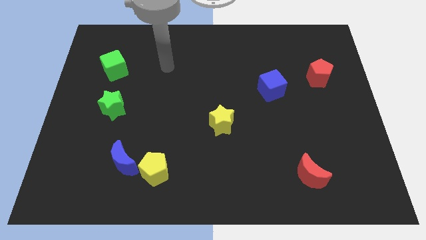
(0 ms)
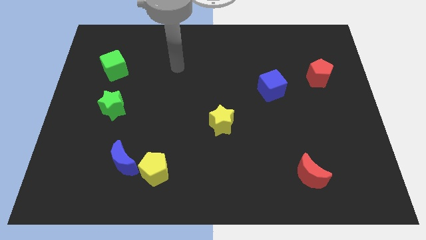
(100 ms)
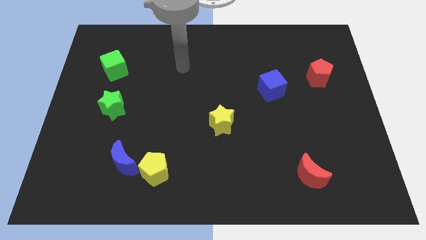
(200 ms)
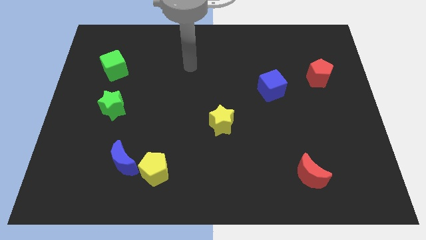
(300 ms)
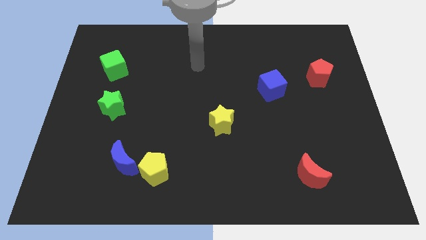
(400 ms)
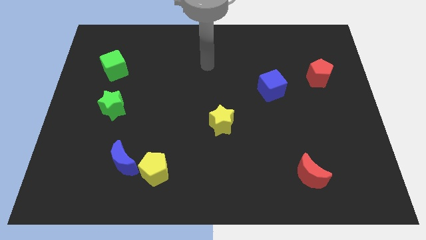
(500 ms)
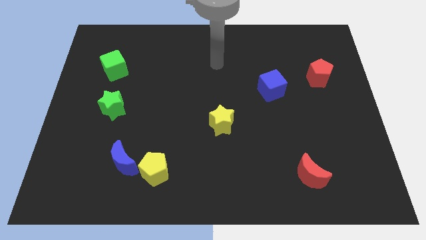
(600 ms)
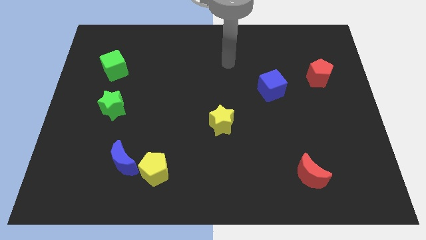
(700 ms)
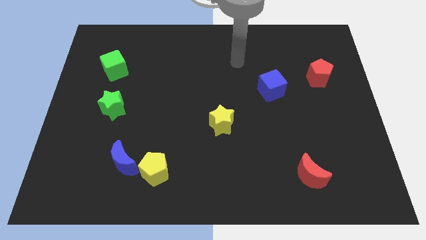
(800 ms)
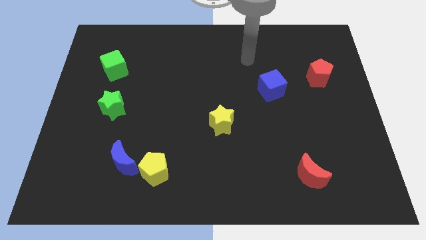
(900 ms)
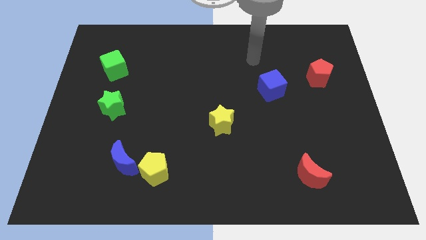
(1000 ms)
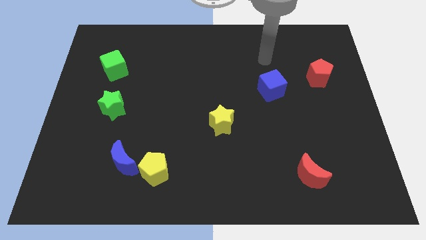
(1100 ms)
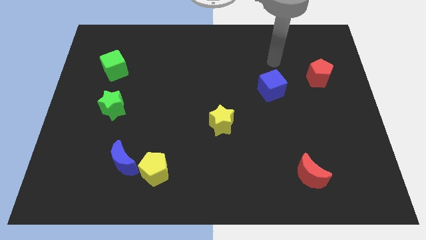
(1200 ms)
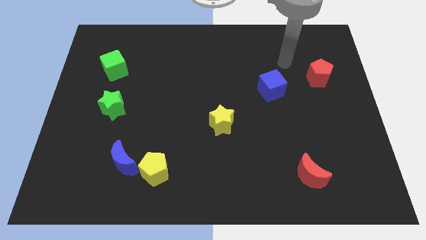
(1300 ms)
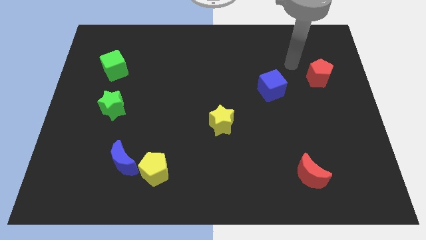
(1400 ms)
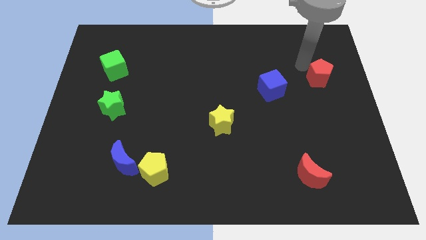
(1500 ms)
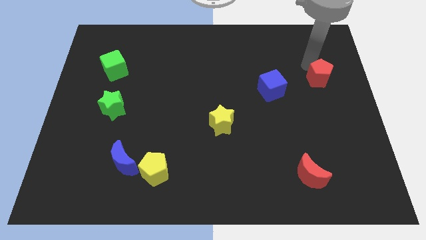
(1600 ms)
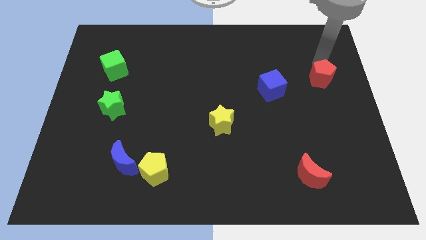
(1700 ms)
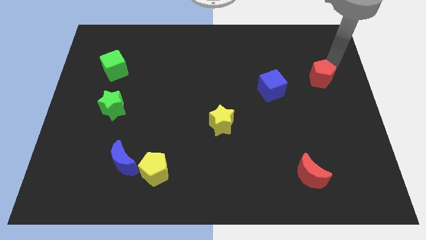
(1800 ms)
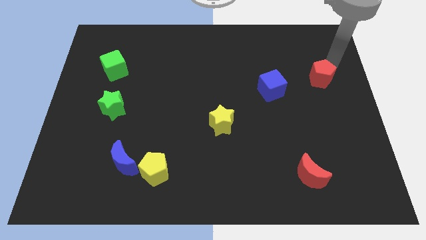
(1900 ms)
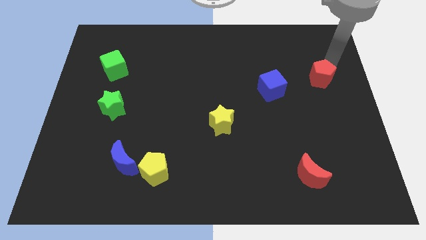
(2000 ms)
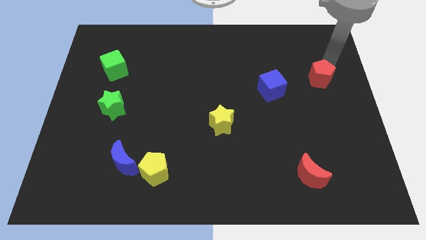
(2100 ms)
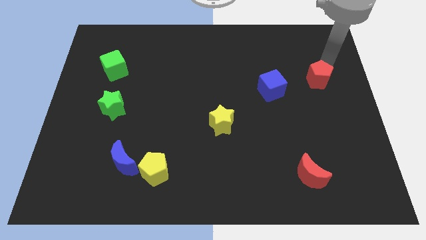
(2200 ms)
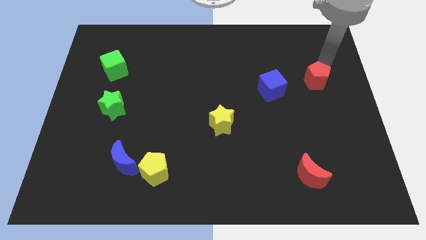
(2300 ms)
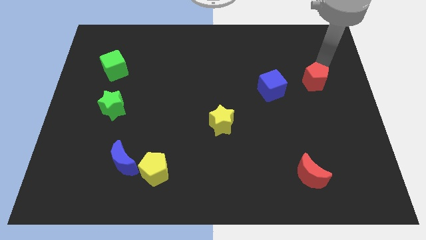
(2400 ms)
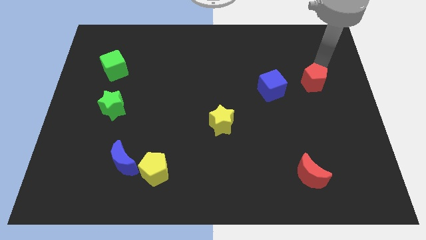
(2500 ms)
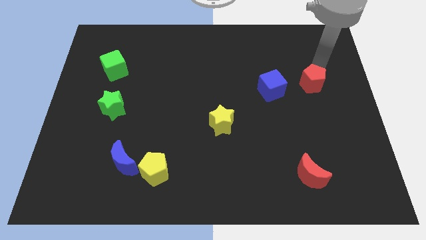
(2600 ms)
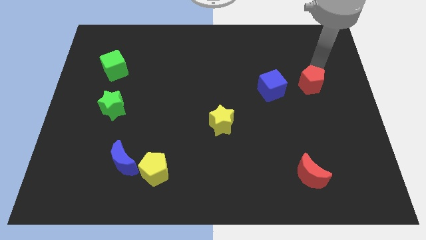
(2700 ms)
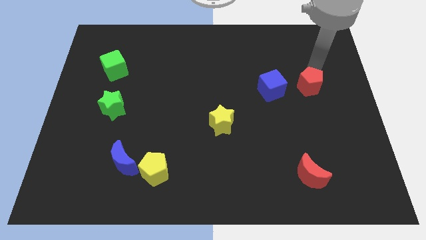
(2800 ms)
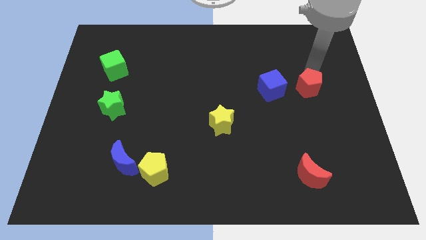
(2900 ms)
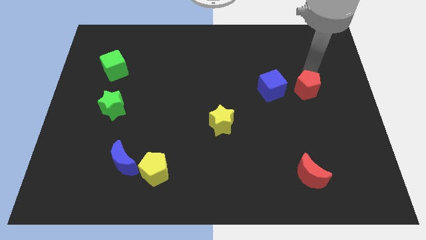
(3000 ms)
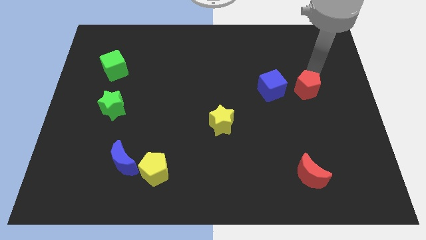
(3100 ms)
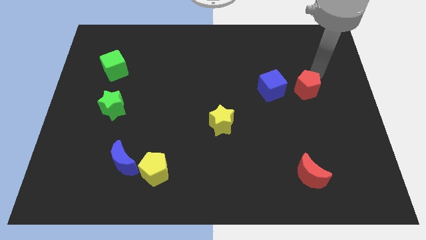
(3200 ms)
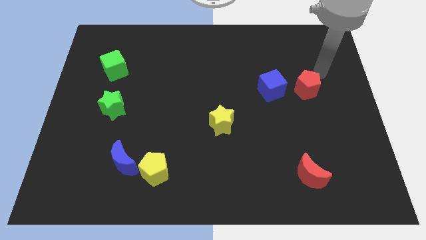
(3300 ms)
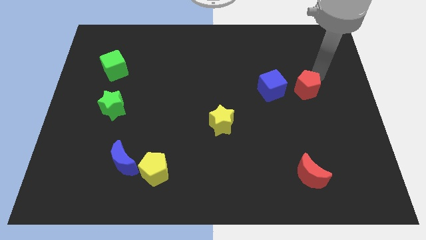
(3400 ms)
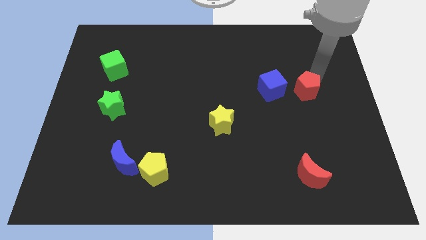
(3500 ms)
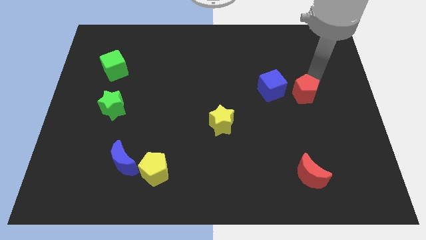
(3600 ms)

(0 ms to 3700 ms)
move the red pentagon down and left a bit

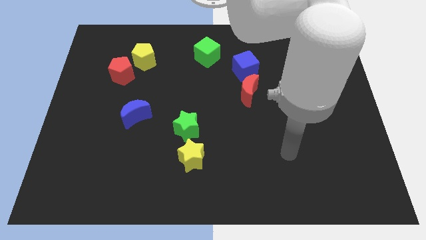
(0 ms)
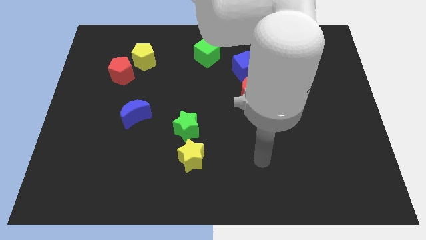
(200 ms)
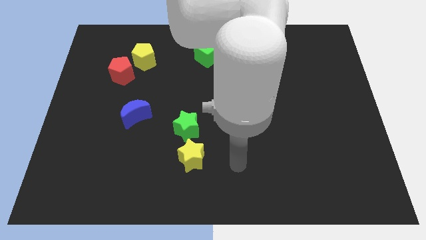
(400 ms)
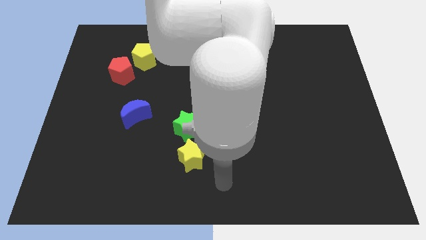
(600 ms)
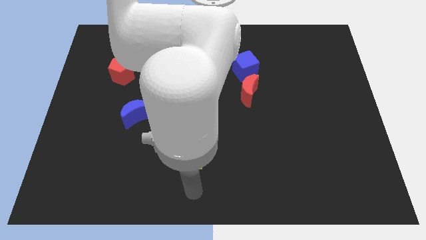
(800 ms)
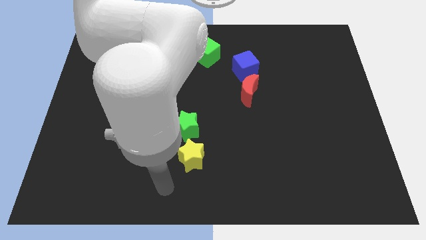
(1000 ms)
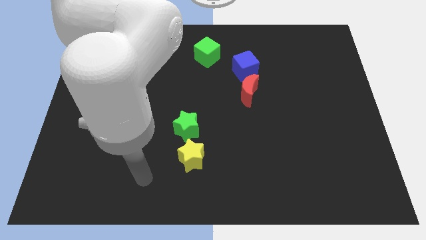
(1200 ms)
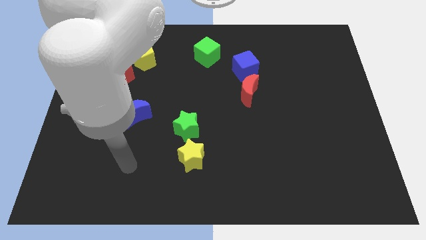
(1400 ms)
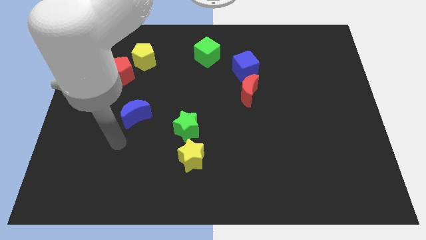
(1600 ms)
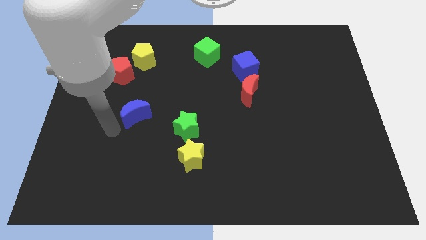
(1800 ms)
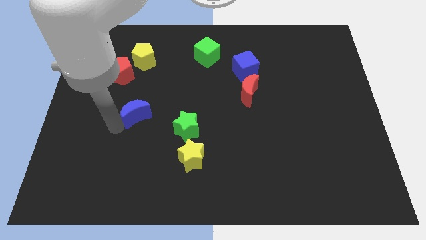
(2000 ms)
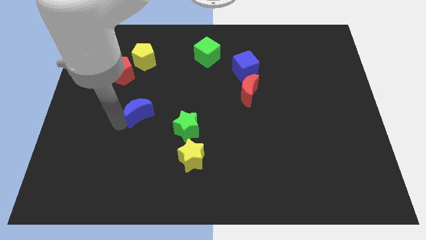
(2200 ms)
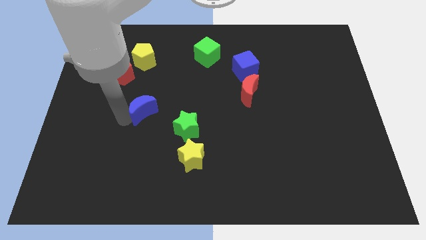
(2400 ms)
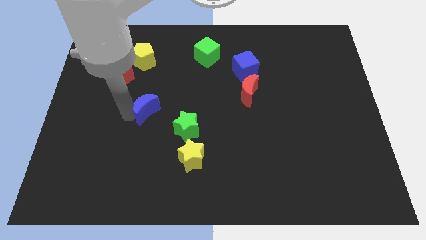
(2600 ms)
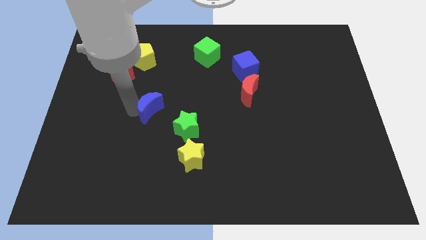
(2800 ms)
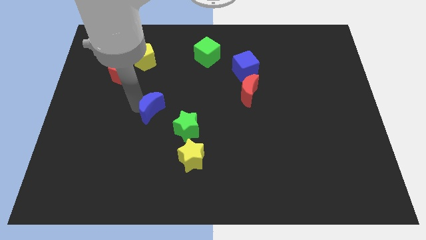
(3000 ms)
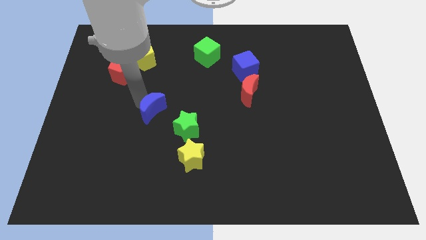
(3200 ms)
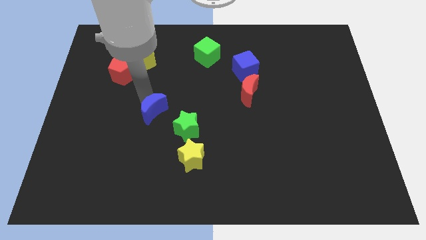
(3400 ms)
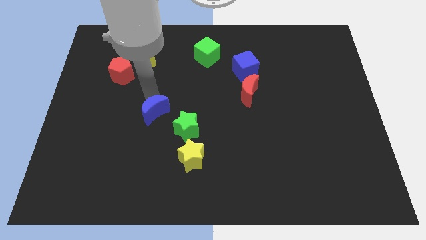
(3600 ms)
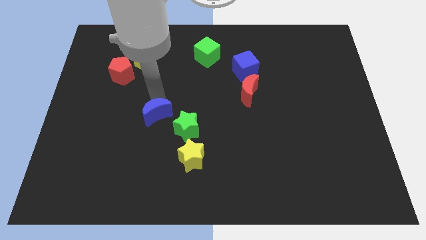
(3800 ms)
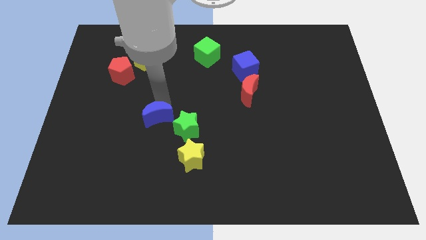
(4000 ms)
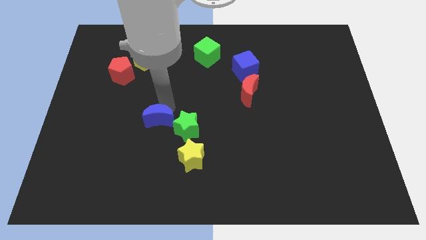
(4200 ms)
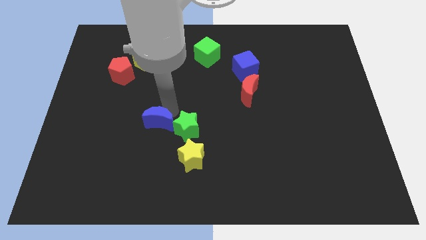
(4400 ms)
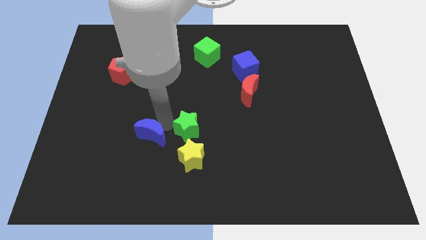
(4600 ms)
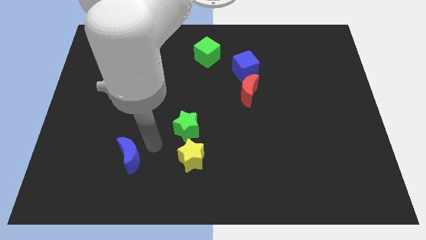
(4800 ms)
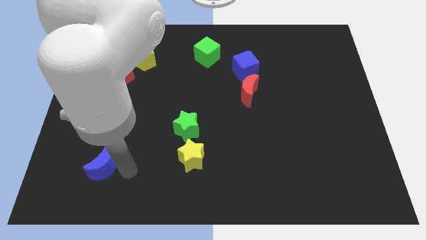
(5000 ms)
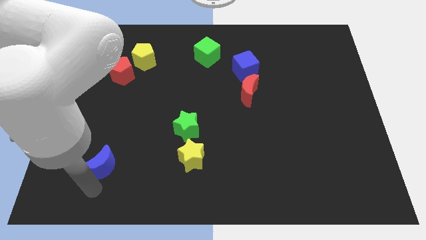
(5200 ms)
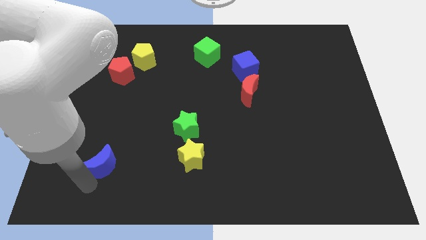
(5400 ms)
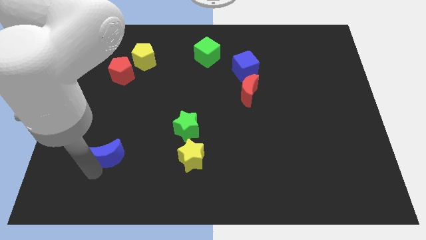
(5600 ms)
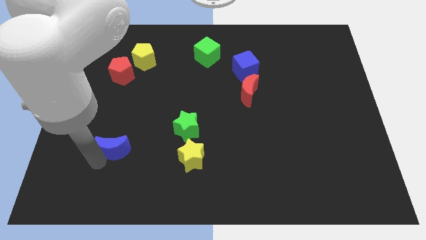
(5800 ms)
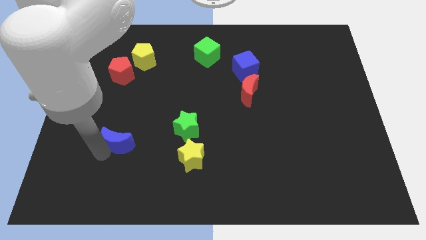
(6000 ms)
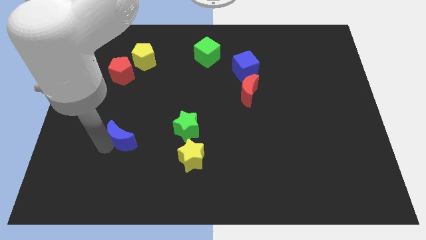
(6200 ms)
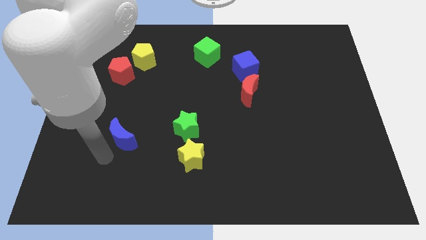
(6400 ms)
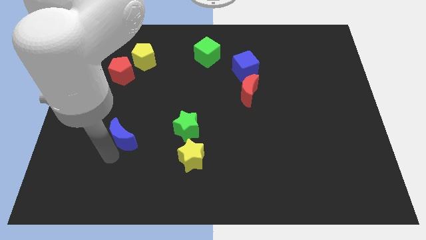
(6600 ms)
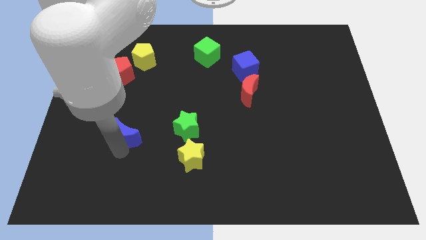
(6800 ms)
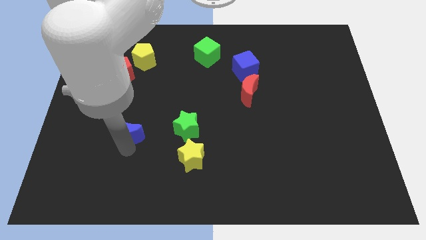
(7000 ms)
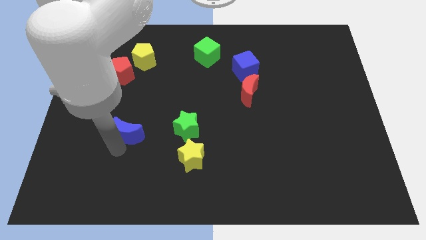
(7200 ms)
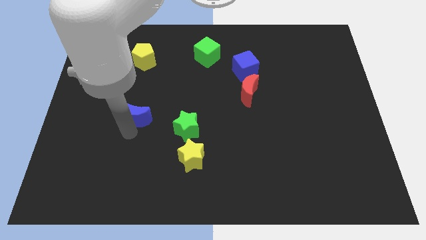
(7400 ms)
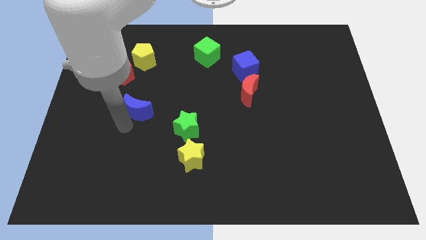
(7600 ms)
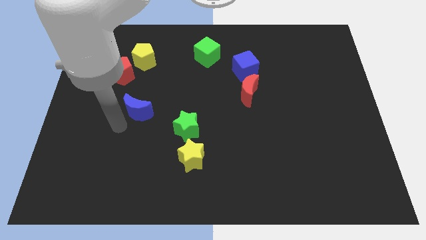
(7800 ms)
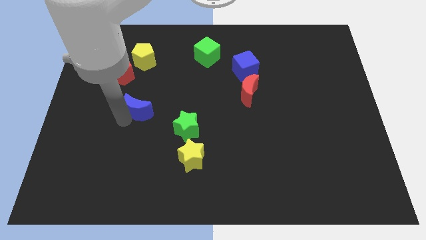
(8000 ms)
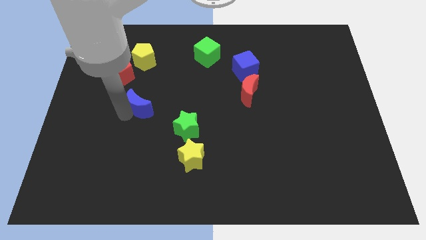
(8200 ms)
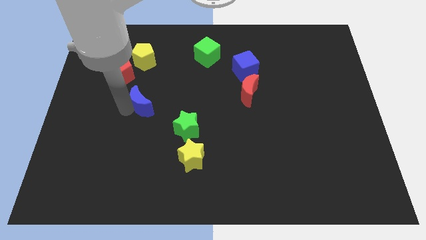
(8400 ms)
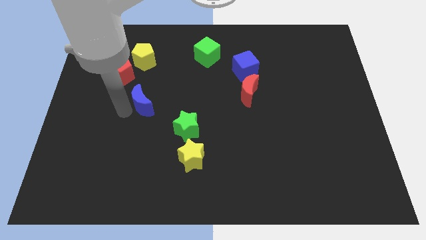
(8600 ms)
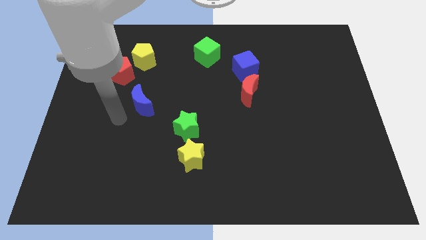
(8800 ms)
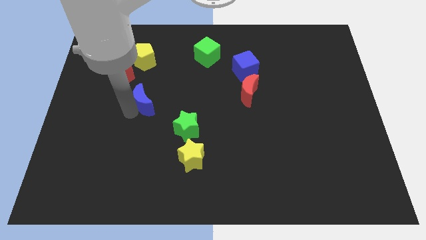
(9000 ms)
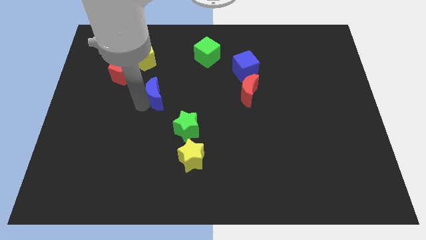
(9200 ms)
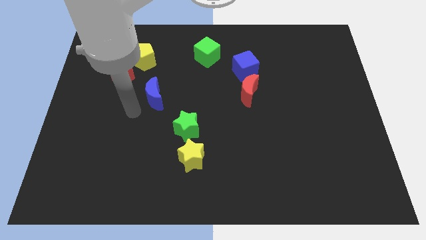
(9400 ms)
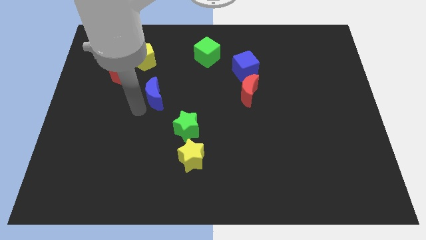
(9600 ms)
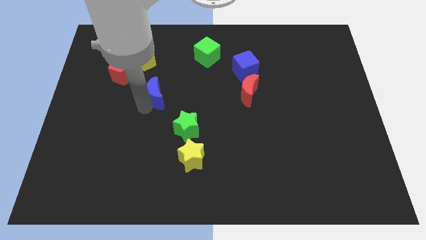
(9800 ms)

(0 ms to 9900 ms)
slightly slide the blue moon upwards and right diagonally

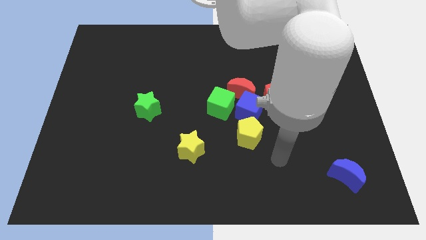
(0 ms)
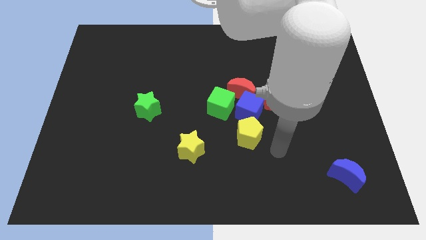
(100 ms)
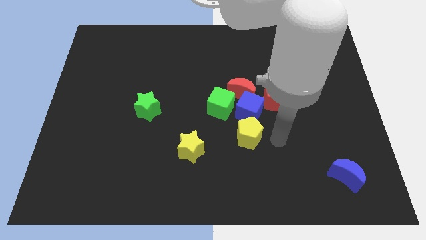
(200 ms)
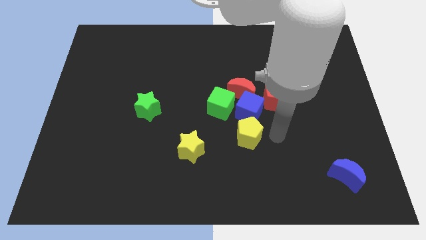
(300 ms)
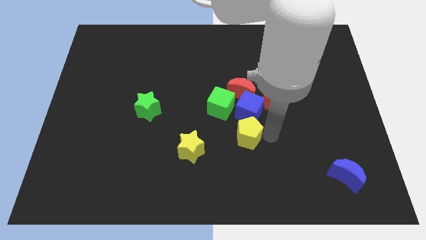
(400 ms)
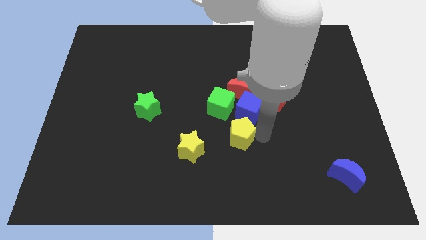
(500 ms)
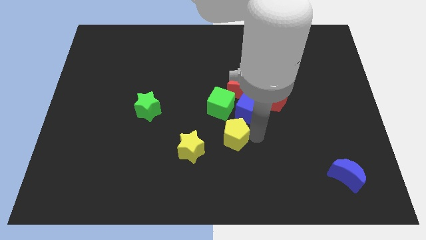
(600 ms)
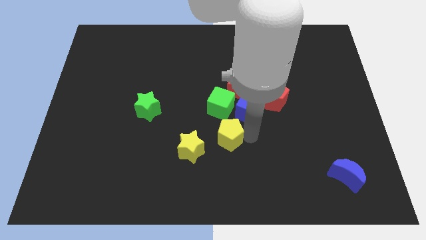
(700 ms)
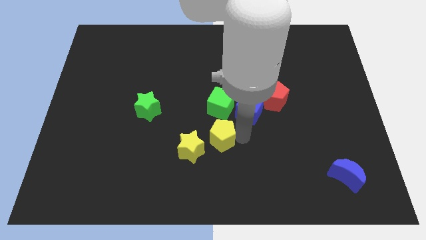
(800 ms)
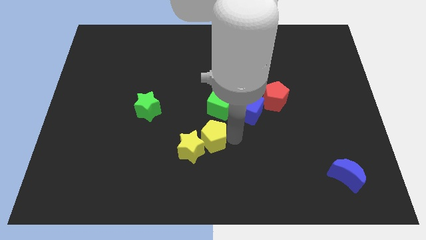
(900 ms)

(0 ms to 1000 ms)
slightly push the yellow pentagon to the left
